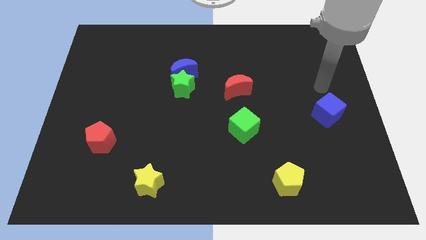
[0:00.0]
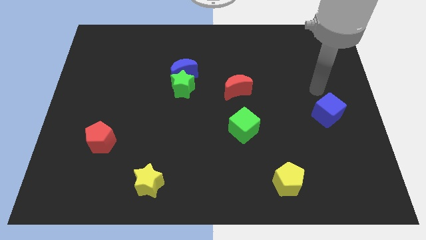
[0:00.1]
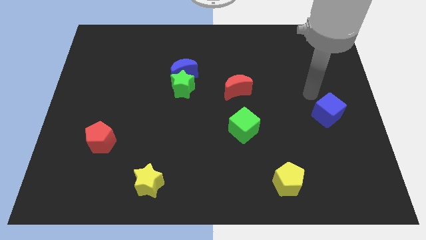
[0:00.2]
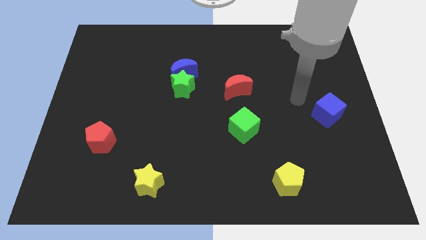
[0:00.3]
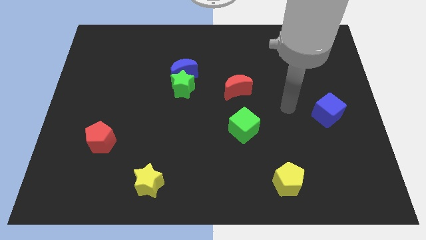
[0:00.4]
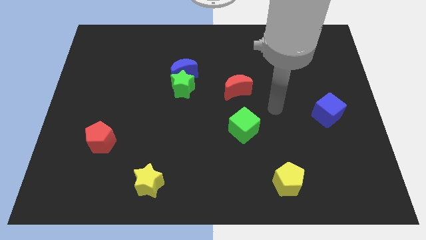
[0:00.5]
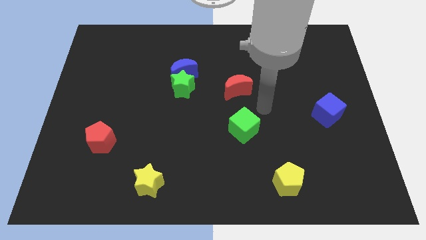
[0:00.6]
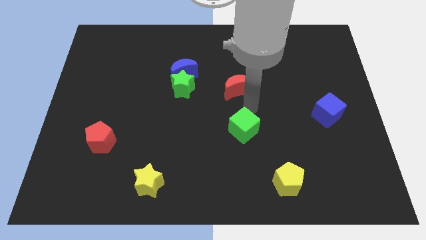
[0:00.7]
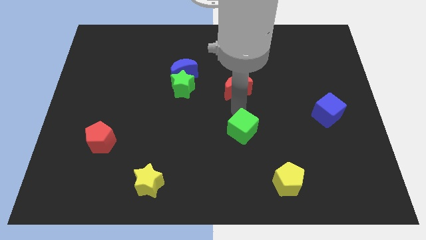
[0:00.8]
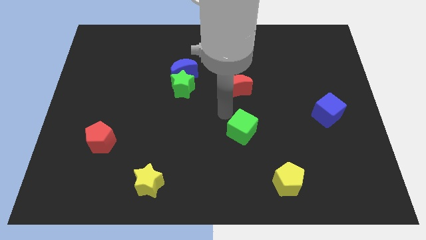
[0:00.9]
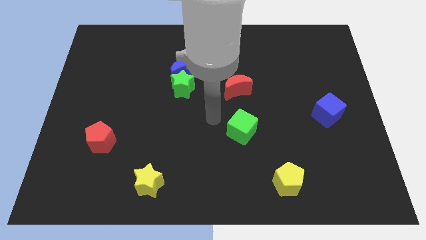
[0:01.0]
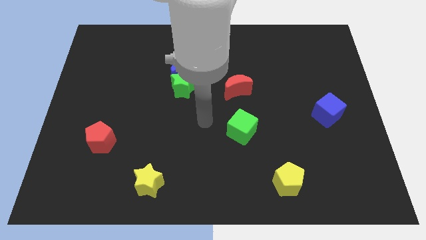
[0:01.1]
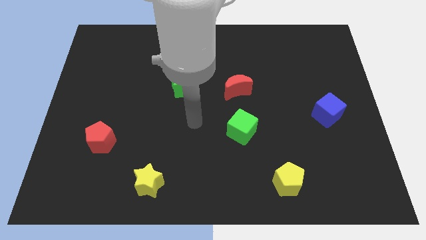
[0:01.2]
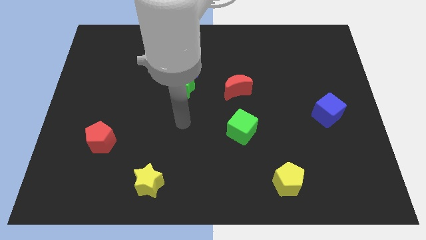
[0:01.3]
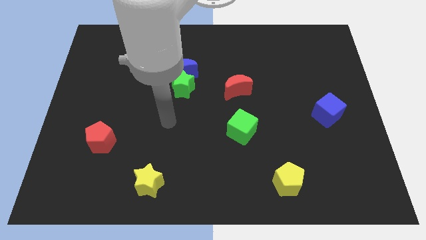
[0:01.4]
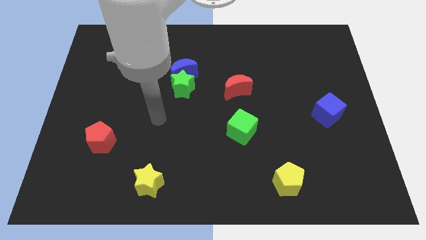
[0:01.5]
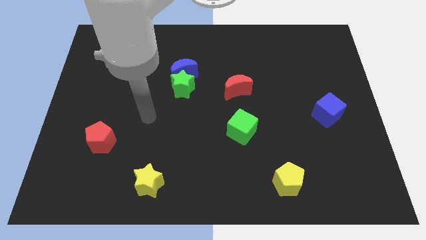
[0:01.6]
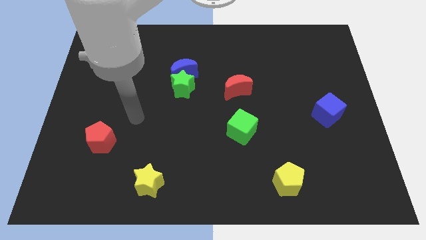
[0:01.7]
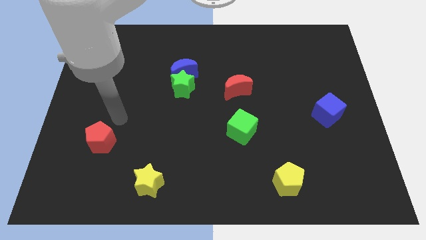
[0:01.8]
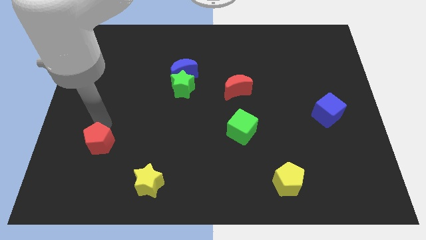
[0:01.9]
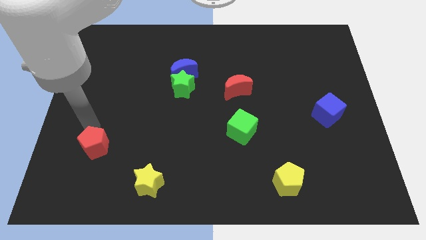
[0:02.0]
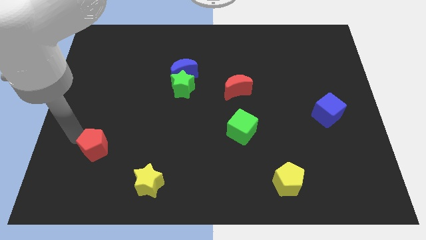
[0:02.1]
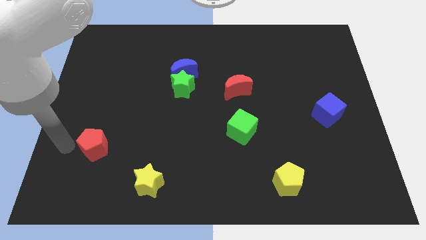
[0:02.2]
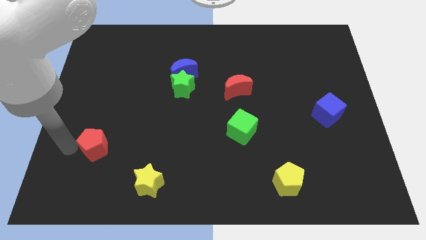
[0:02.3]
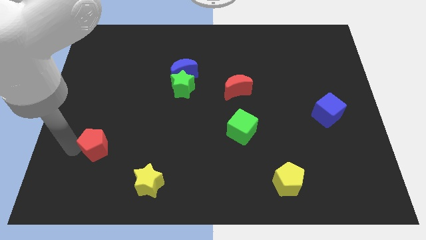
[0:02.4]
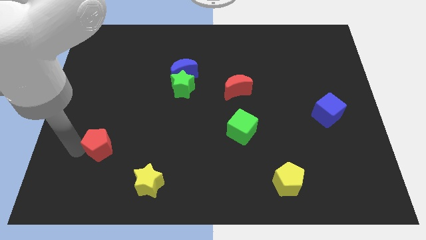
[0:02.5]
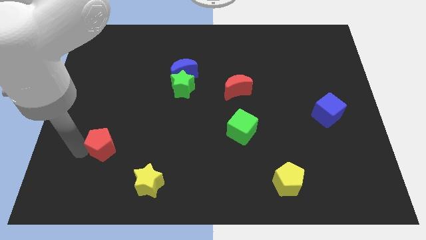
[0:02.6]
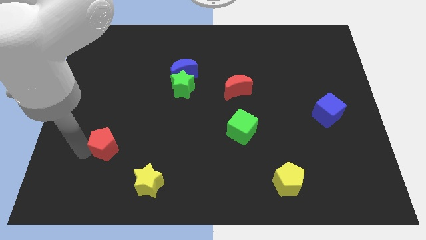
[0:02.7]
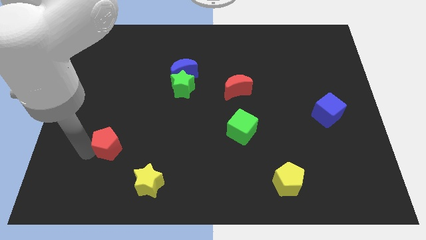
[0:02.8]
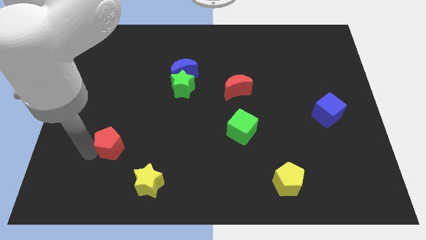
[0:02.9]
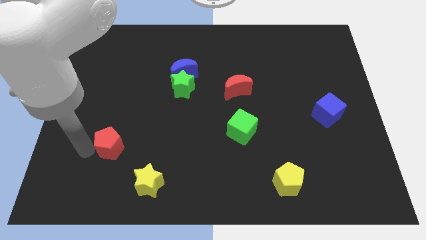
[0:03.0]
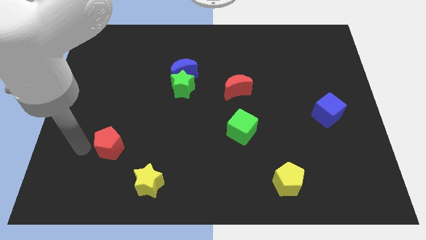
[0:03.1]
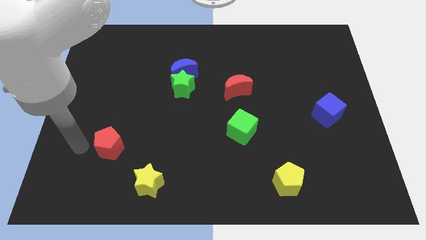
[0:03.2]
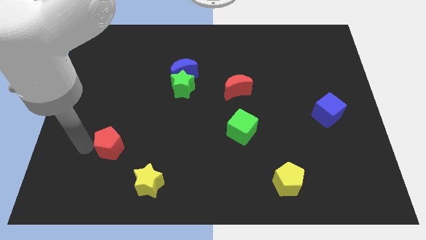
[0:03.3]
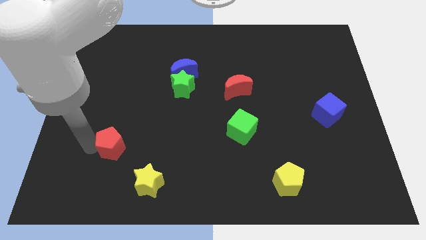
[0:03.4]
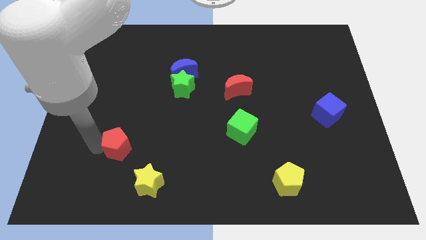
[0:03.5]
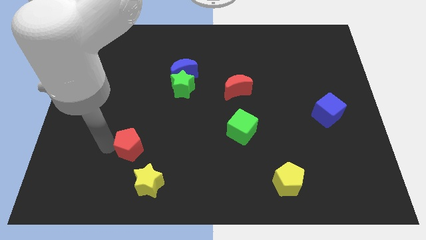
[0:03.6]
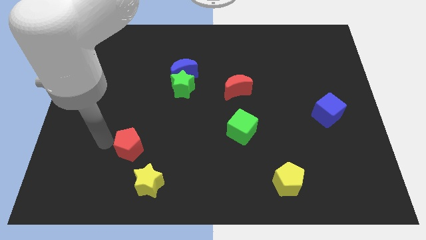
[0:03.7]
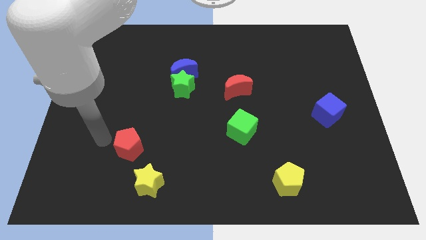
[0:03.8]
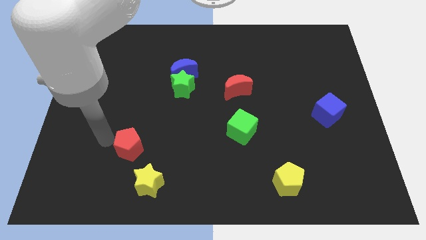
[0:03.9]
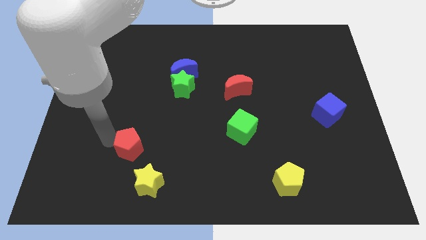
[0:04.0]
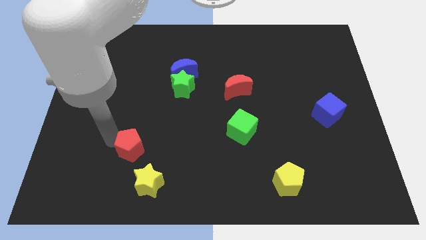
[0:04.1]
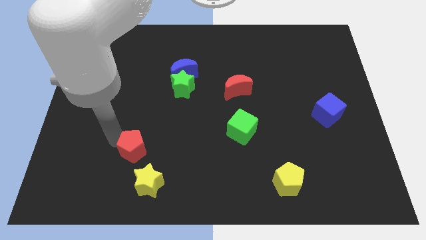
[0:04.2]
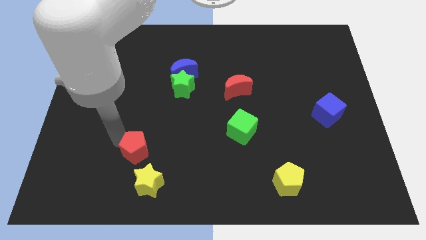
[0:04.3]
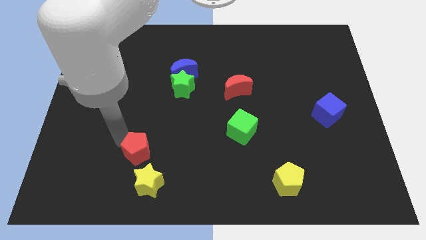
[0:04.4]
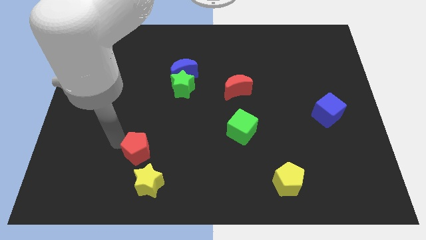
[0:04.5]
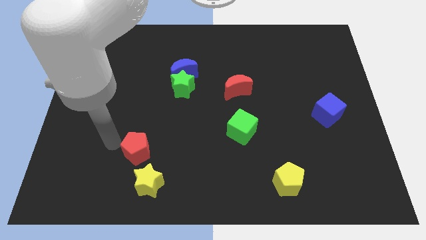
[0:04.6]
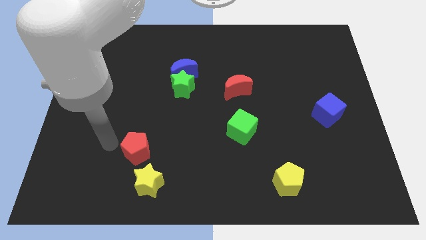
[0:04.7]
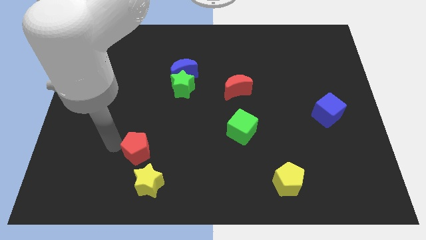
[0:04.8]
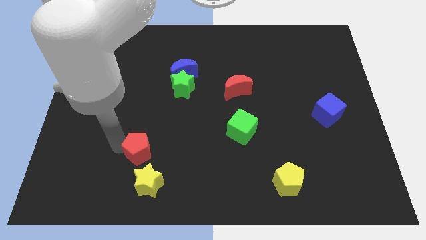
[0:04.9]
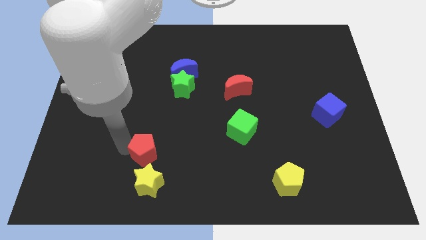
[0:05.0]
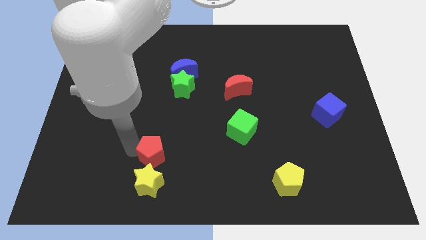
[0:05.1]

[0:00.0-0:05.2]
push the red pentagon to the top right side of the yellow star

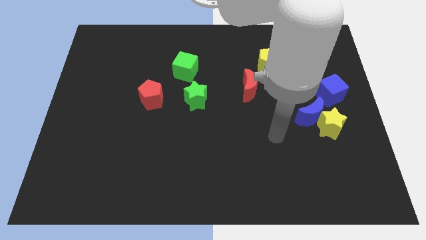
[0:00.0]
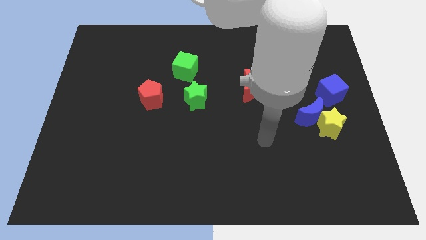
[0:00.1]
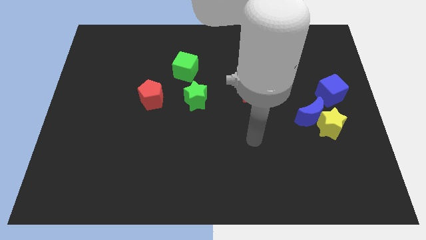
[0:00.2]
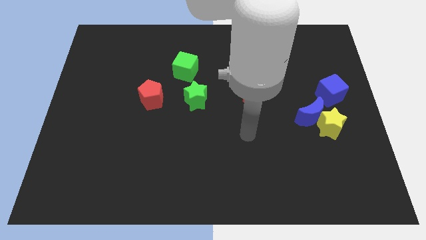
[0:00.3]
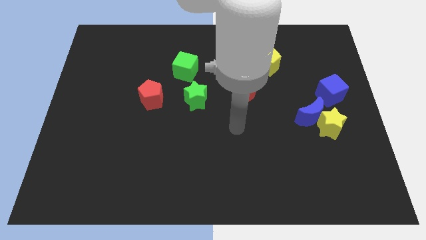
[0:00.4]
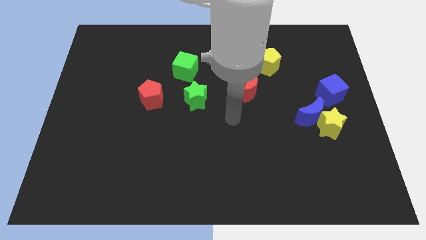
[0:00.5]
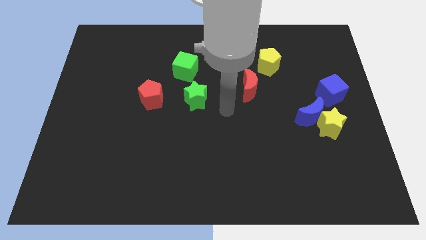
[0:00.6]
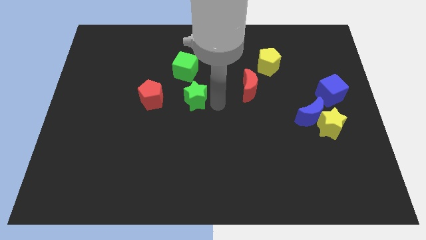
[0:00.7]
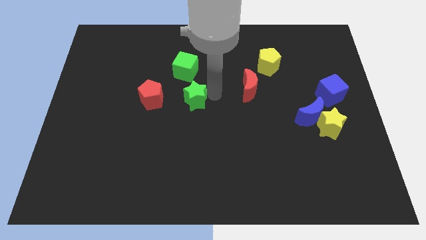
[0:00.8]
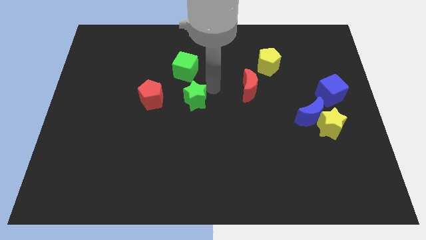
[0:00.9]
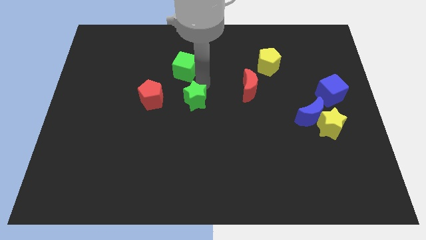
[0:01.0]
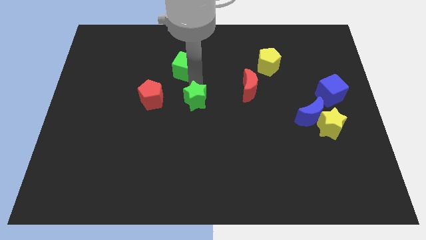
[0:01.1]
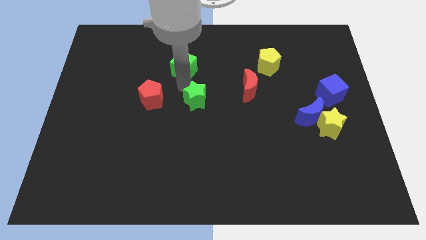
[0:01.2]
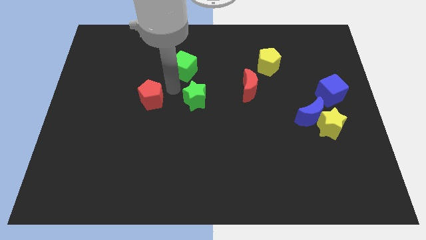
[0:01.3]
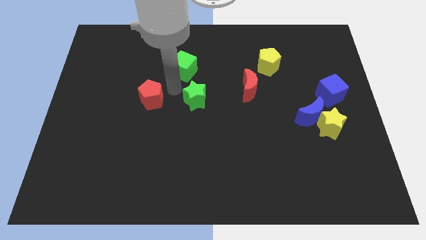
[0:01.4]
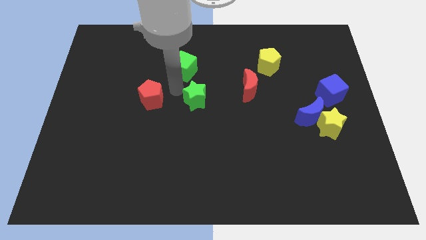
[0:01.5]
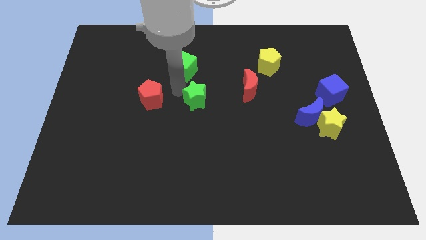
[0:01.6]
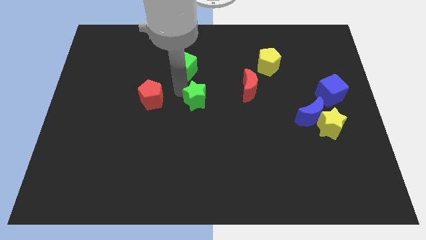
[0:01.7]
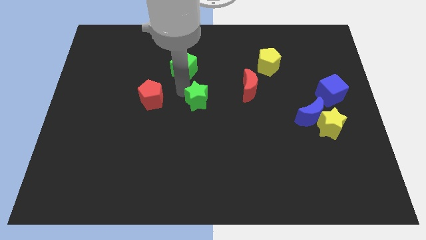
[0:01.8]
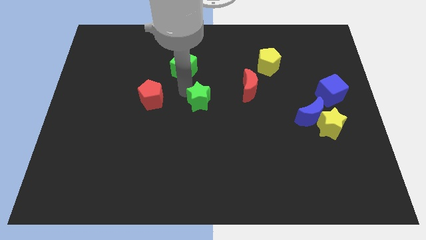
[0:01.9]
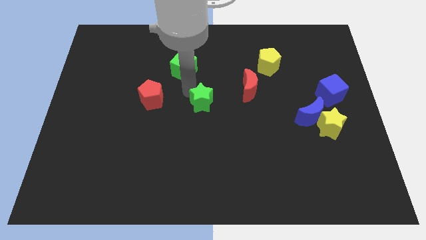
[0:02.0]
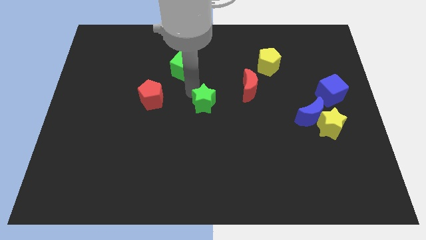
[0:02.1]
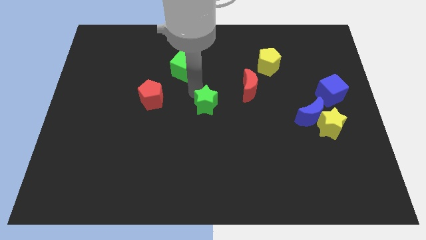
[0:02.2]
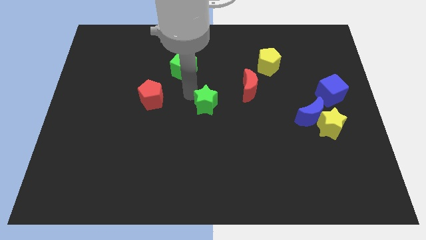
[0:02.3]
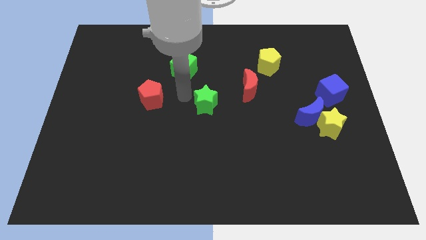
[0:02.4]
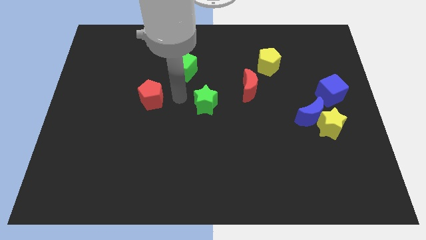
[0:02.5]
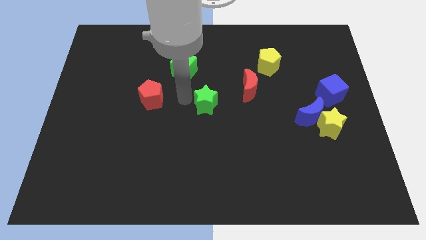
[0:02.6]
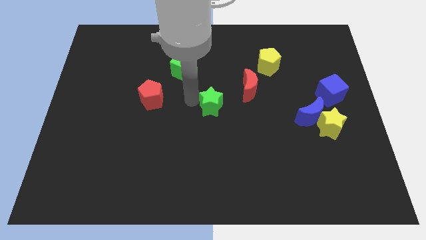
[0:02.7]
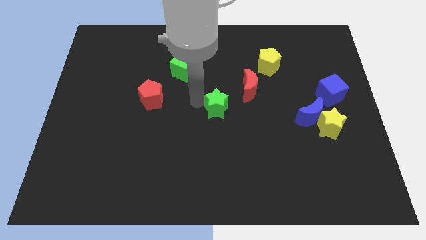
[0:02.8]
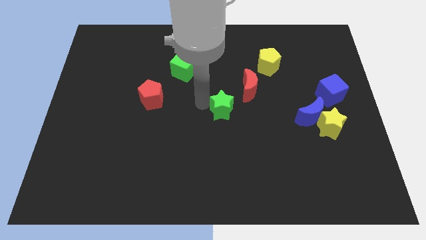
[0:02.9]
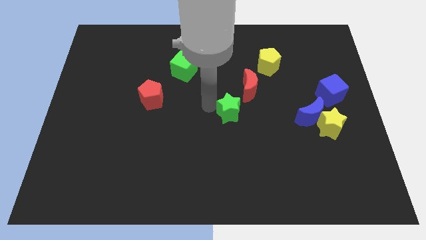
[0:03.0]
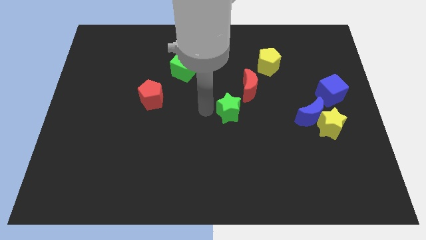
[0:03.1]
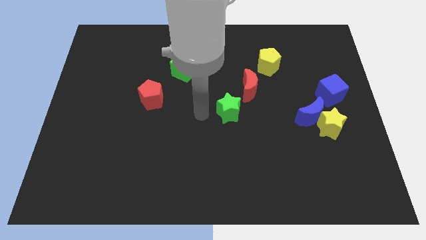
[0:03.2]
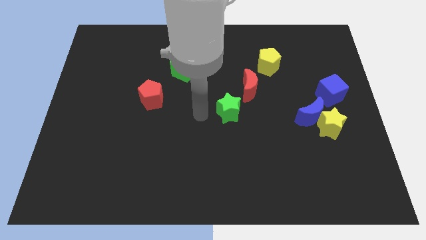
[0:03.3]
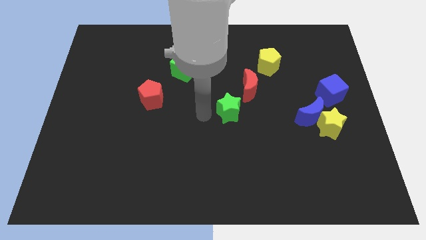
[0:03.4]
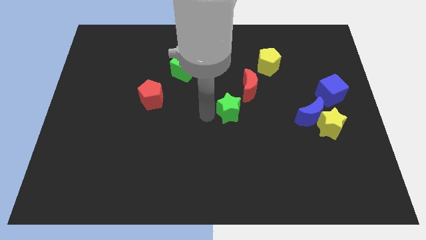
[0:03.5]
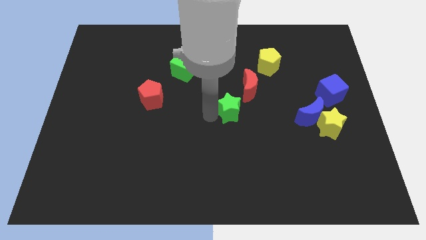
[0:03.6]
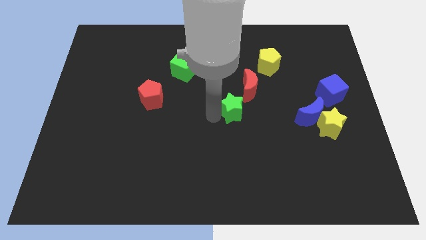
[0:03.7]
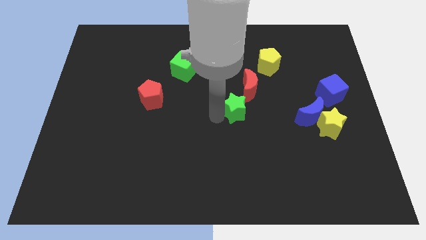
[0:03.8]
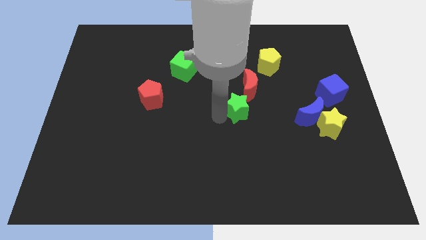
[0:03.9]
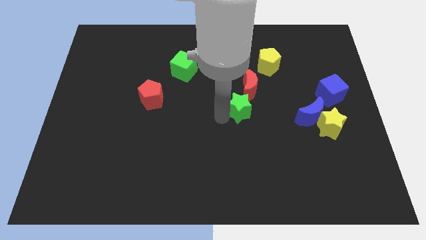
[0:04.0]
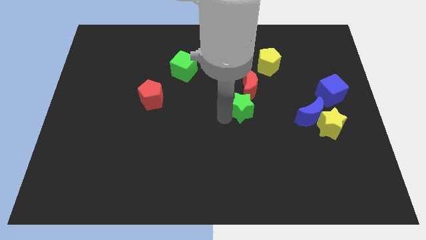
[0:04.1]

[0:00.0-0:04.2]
put the green star to the left side of the blue moon
